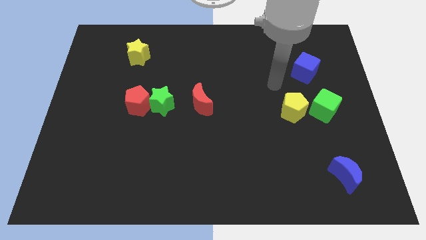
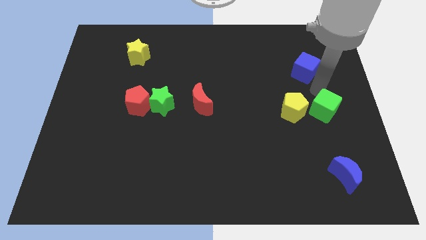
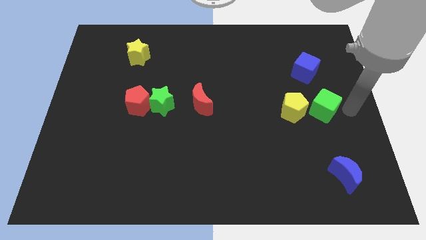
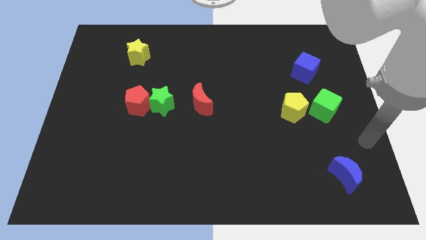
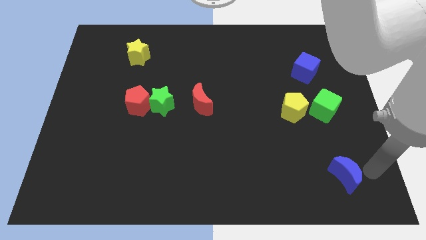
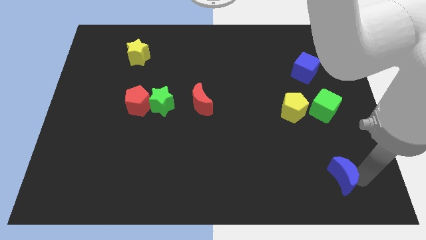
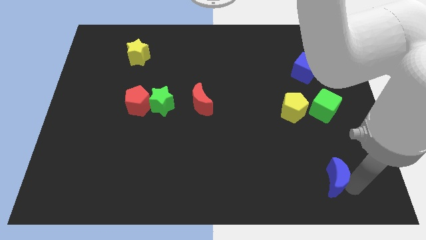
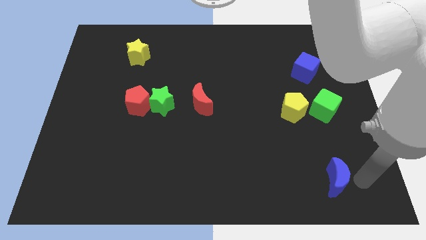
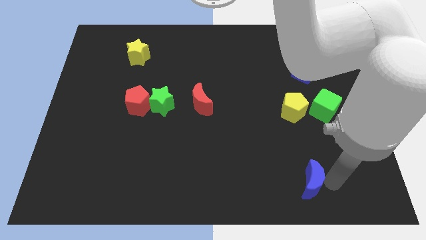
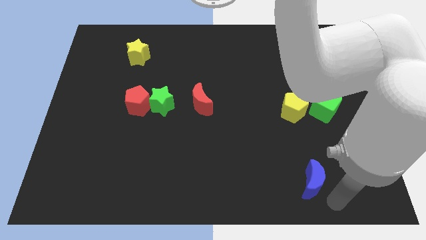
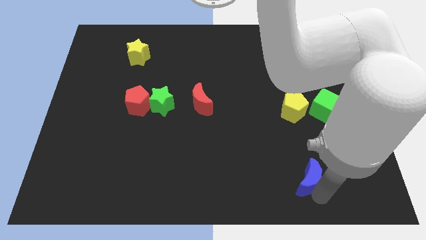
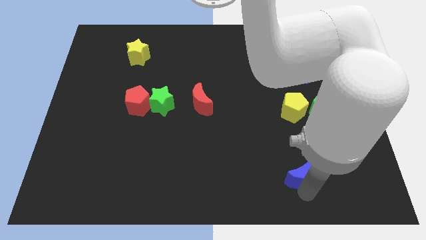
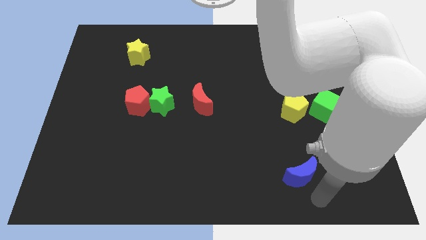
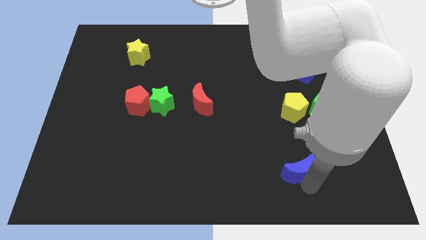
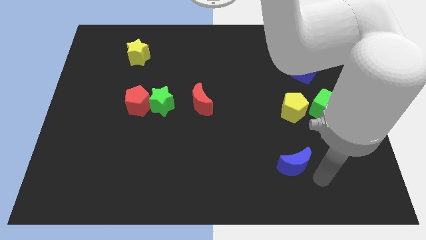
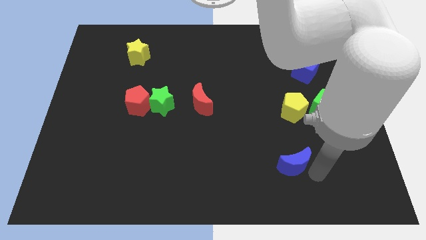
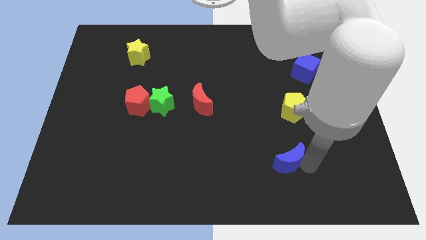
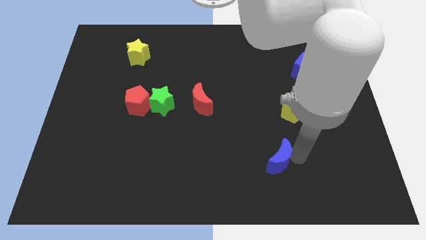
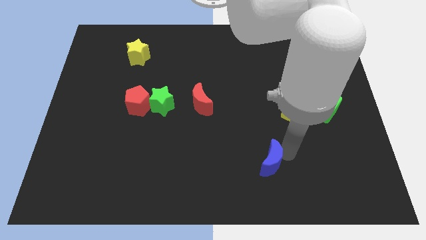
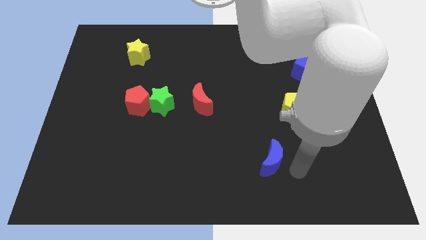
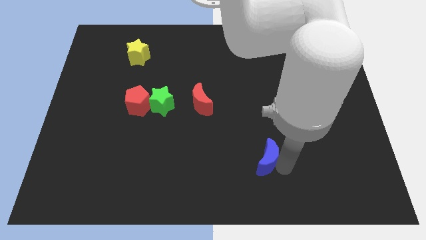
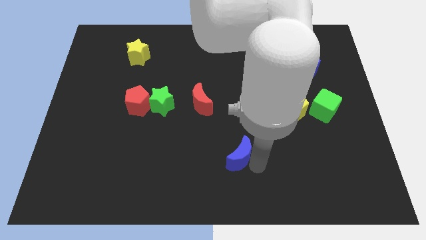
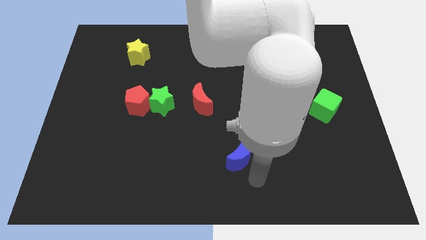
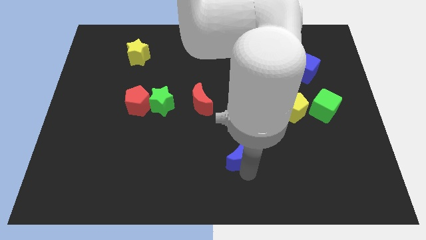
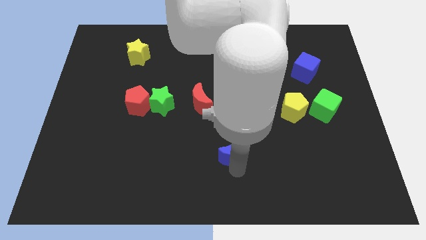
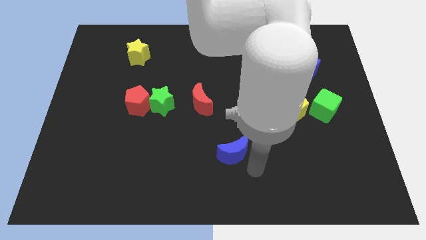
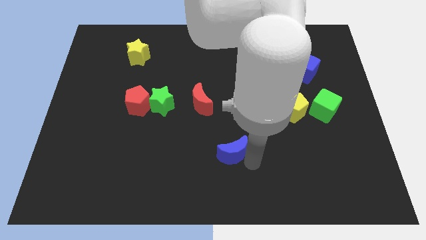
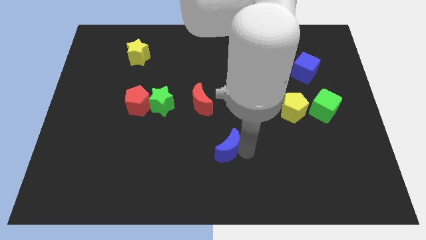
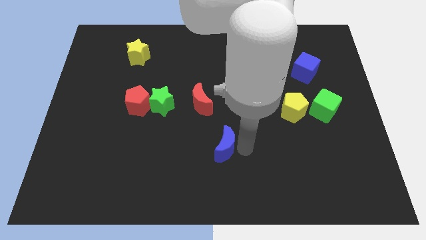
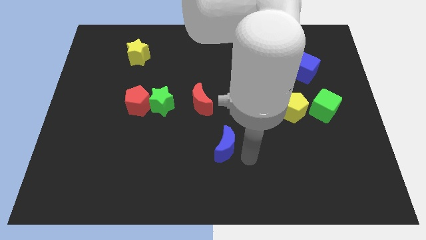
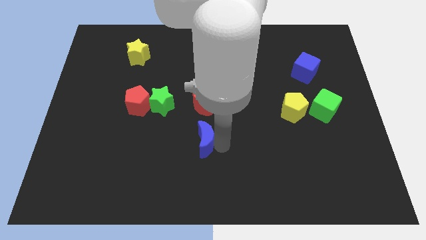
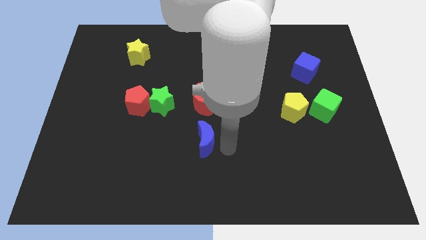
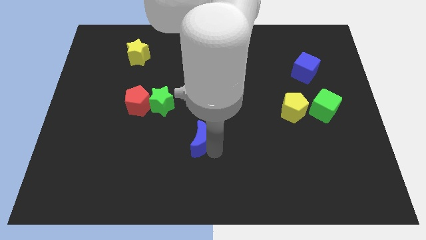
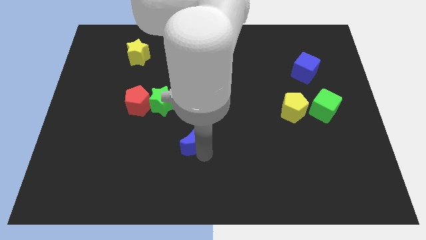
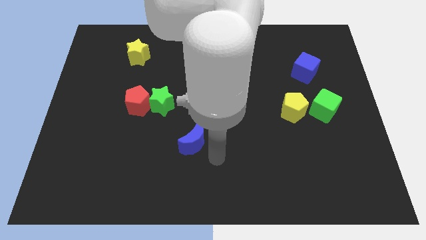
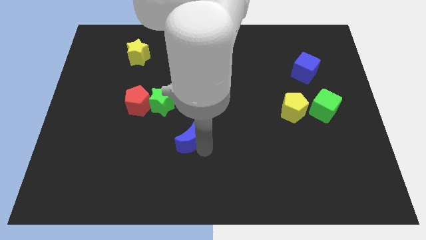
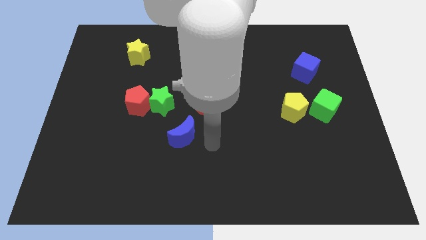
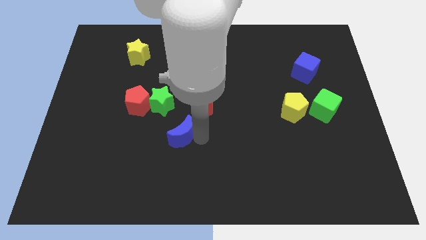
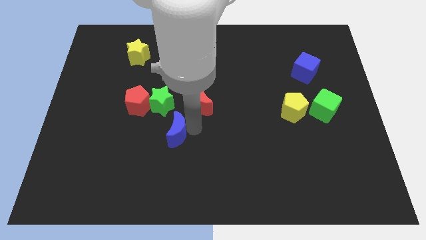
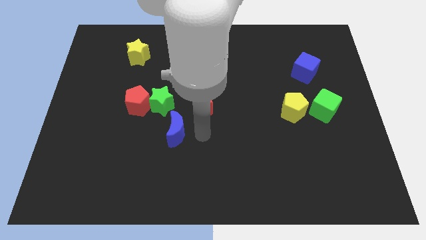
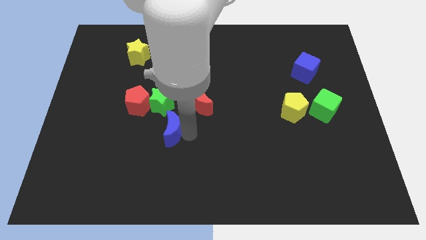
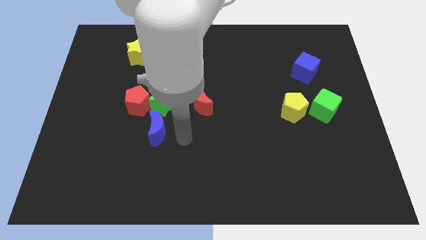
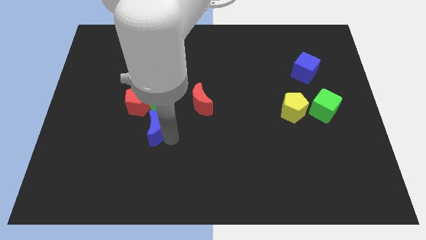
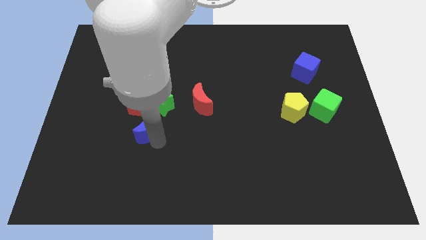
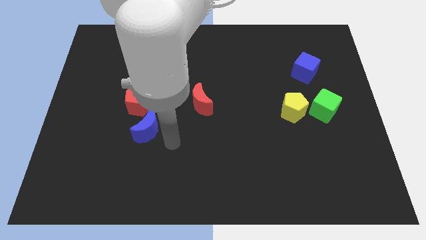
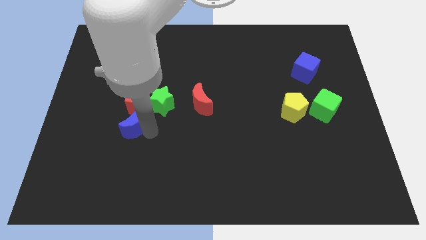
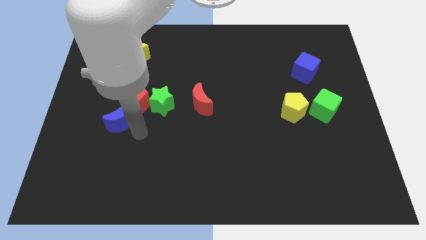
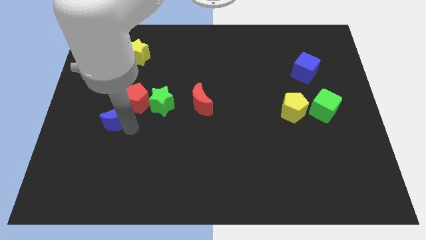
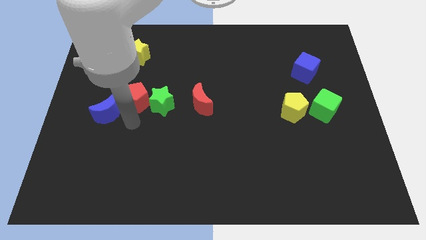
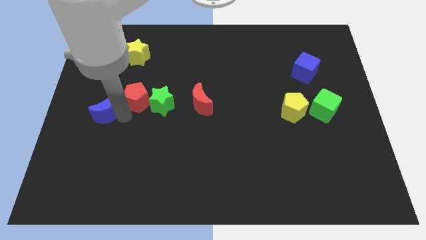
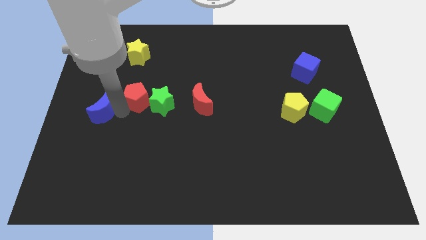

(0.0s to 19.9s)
move the blue moon to the left side of the board
